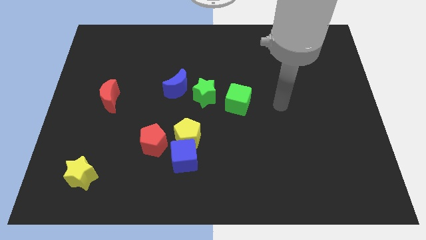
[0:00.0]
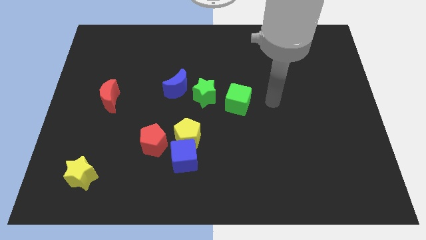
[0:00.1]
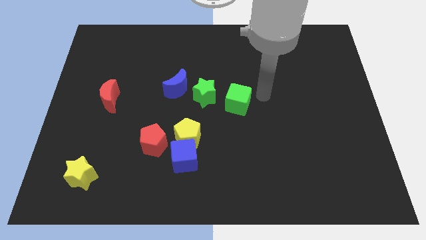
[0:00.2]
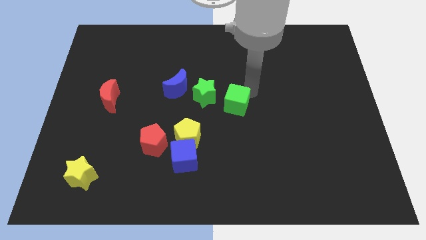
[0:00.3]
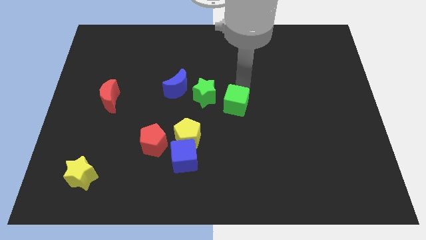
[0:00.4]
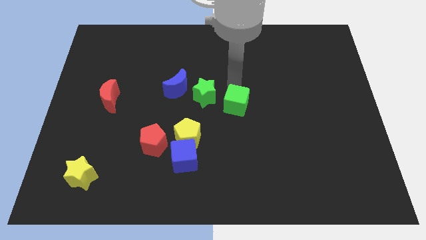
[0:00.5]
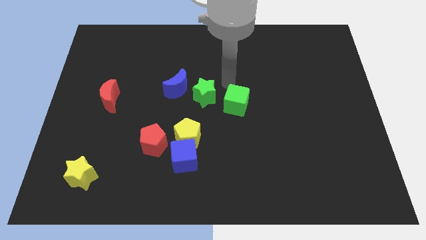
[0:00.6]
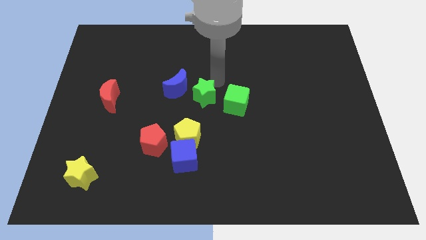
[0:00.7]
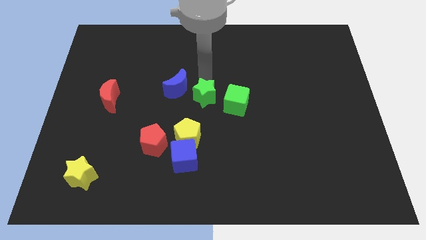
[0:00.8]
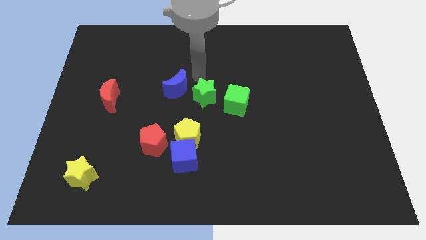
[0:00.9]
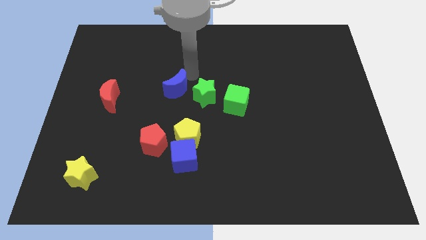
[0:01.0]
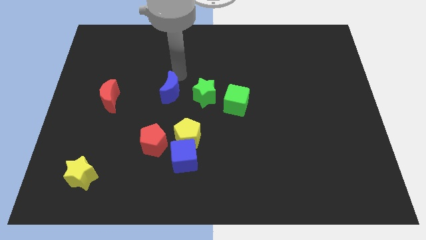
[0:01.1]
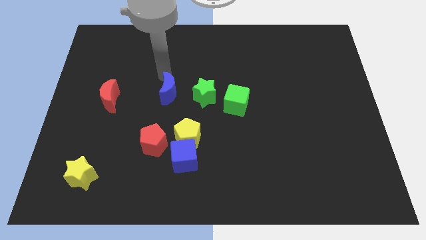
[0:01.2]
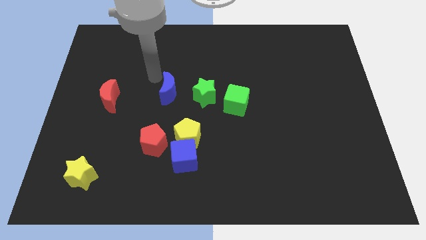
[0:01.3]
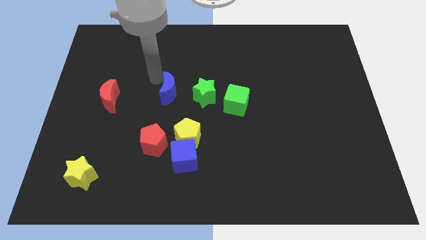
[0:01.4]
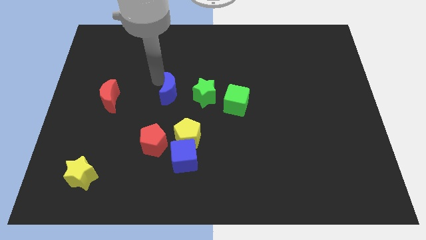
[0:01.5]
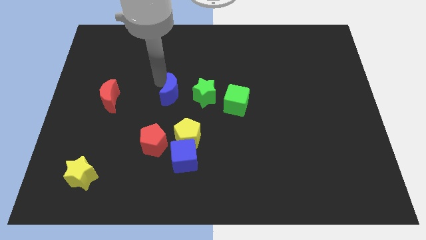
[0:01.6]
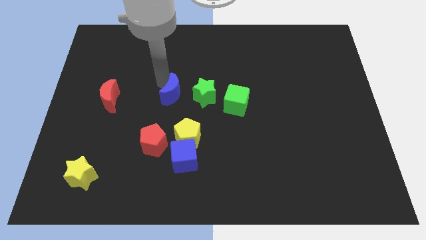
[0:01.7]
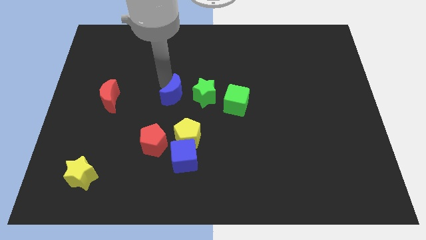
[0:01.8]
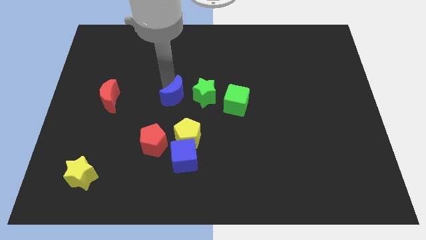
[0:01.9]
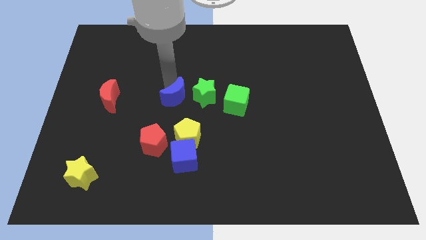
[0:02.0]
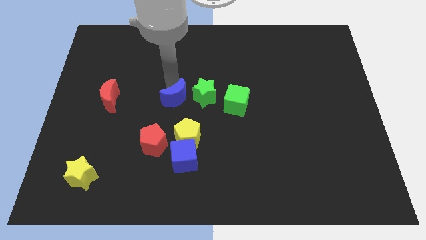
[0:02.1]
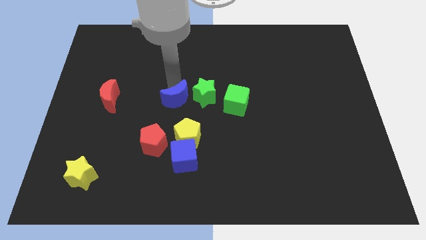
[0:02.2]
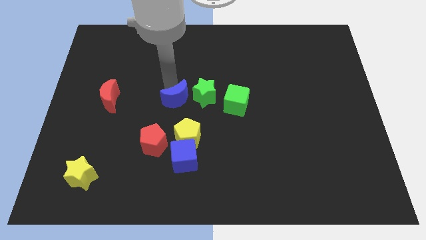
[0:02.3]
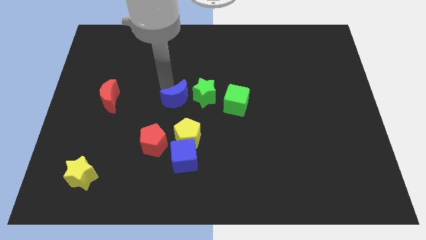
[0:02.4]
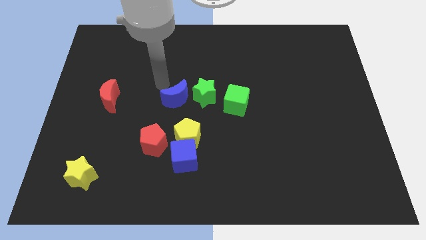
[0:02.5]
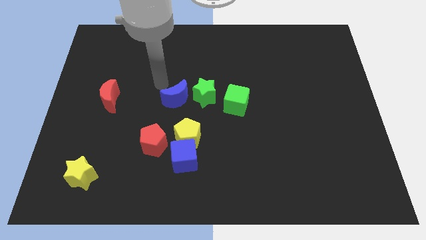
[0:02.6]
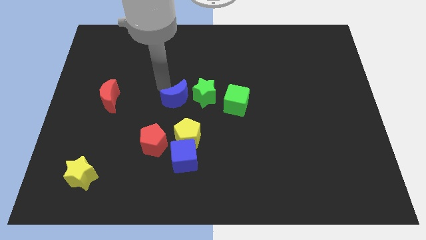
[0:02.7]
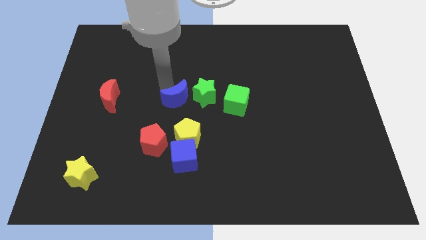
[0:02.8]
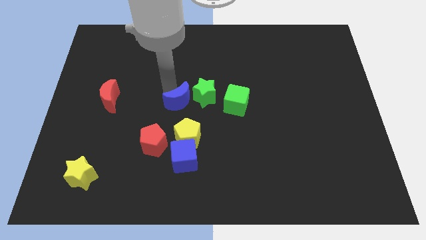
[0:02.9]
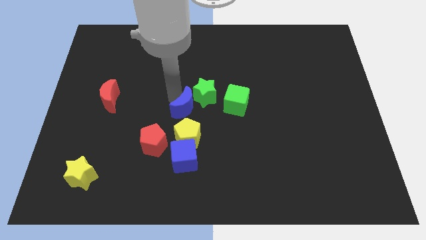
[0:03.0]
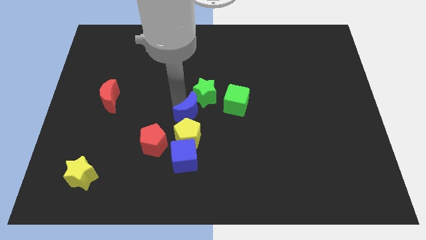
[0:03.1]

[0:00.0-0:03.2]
push the blue moon slightly downwards and right diagonally

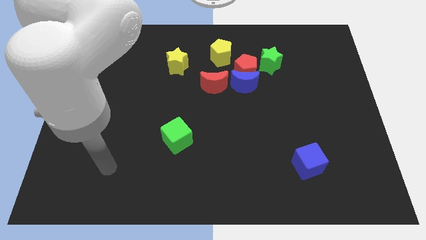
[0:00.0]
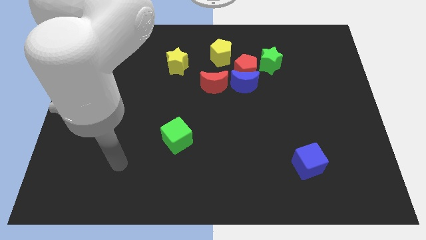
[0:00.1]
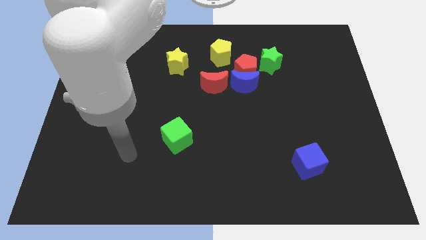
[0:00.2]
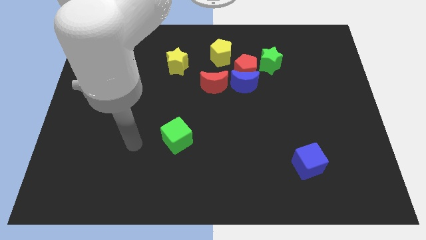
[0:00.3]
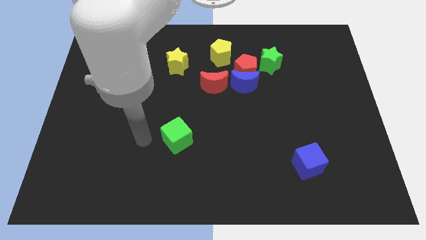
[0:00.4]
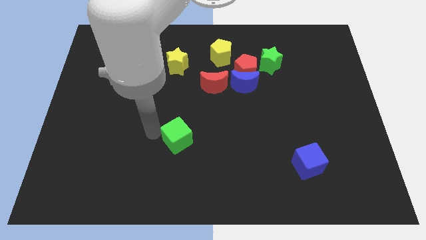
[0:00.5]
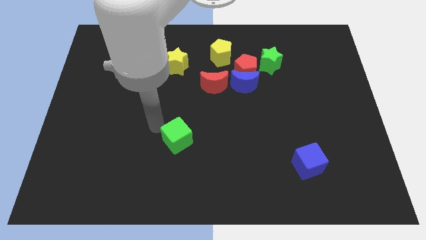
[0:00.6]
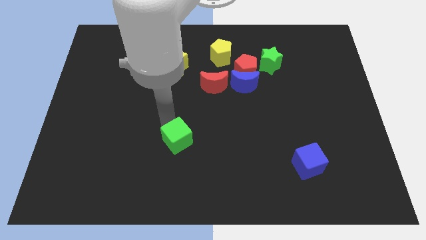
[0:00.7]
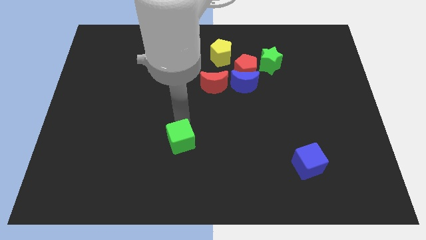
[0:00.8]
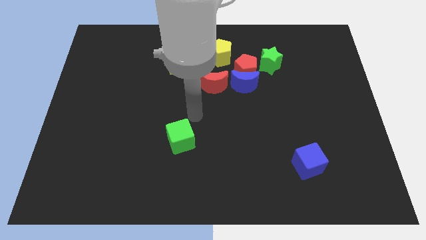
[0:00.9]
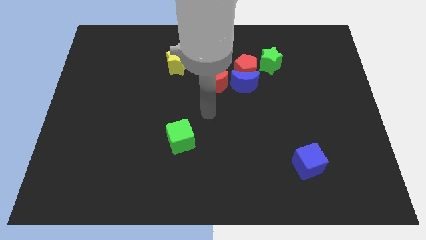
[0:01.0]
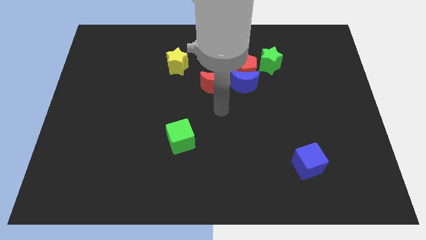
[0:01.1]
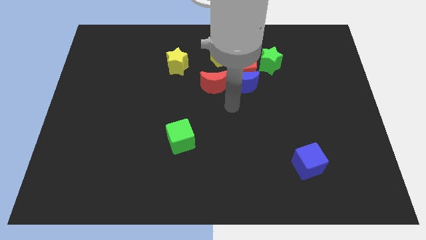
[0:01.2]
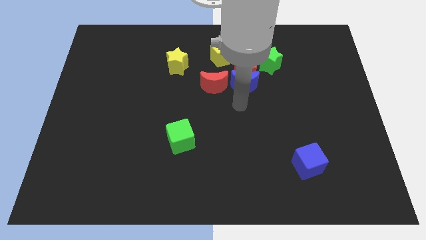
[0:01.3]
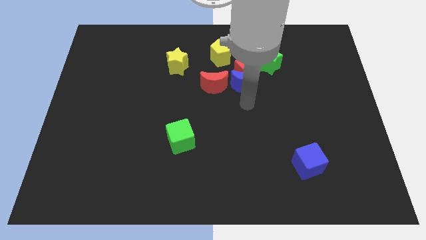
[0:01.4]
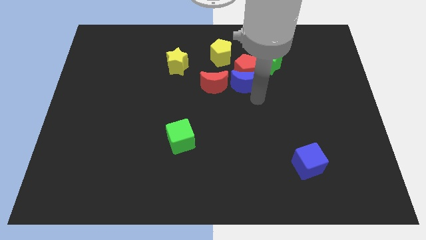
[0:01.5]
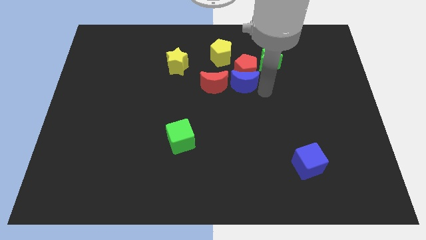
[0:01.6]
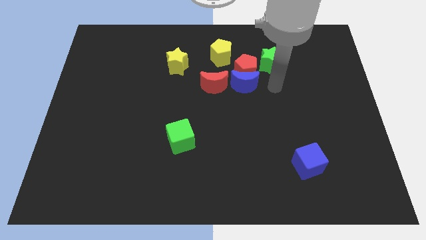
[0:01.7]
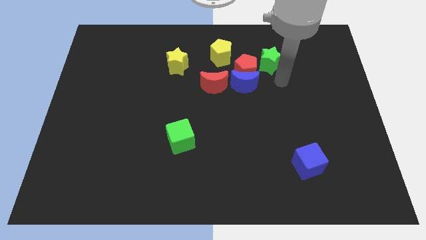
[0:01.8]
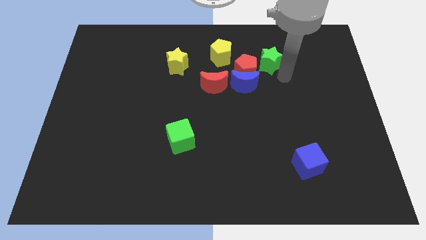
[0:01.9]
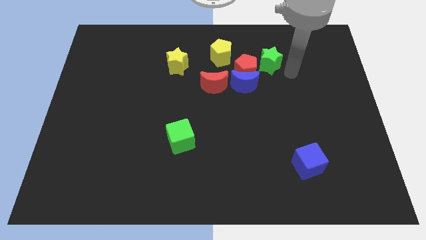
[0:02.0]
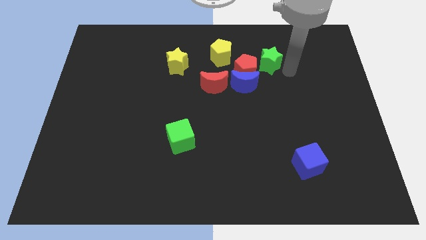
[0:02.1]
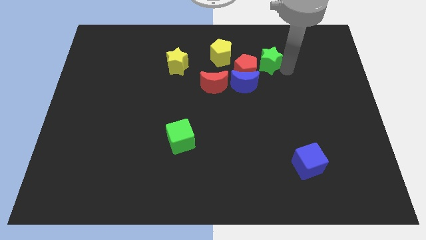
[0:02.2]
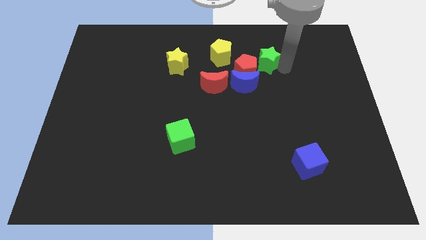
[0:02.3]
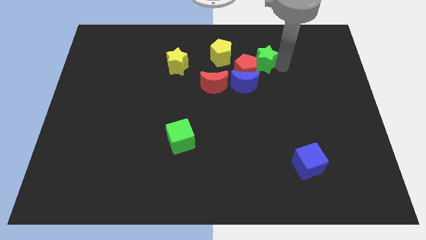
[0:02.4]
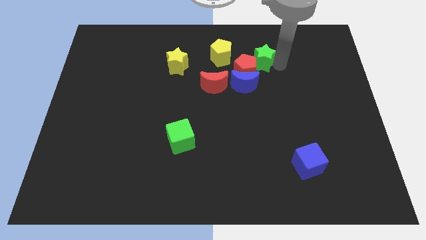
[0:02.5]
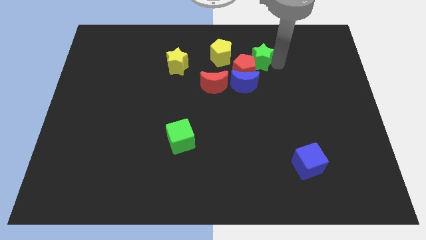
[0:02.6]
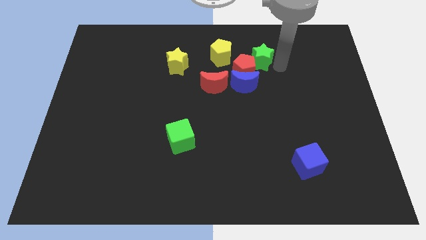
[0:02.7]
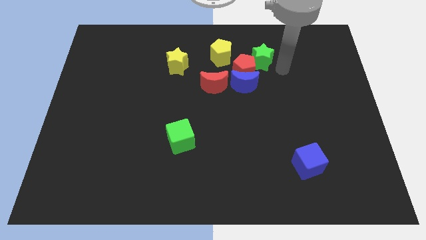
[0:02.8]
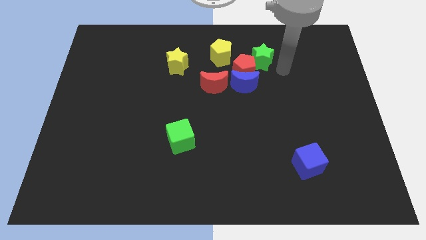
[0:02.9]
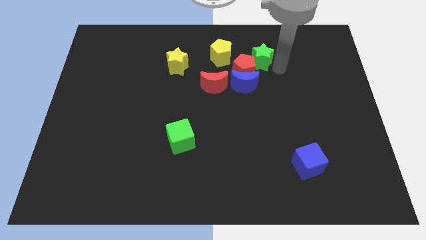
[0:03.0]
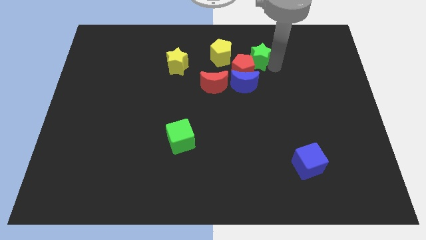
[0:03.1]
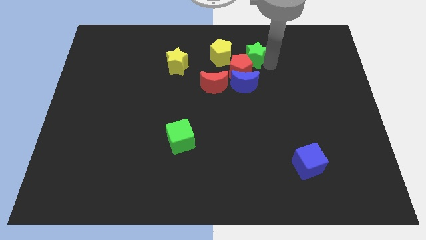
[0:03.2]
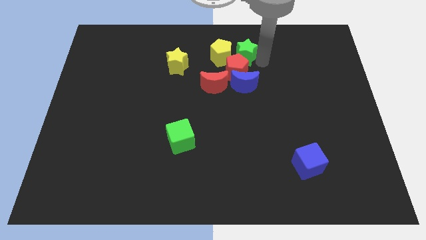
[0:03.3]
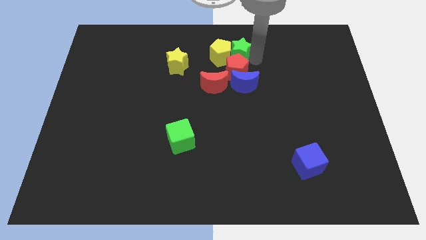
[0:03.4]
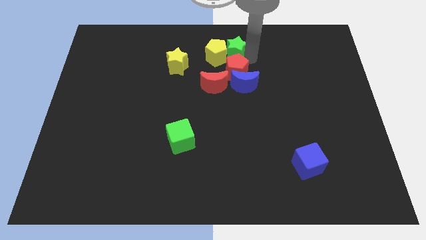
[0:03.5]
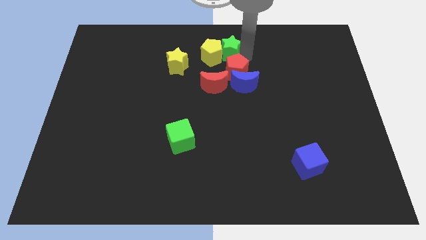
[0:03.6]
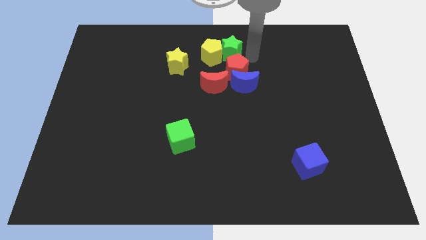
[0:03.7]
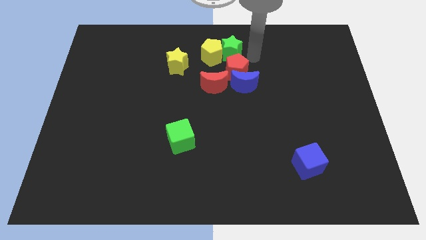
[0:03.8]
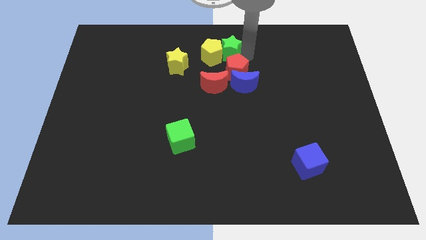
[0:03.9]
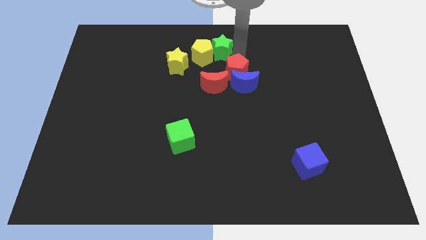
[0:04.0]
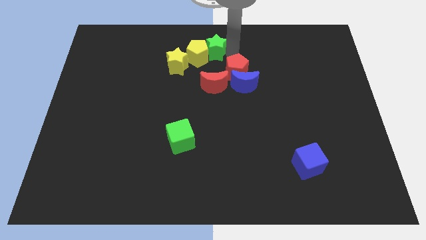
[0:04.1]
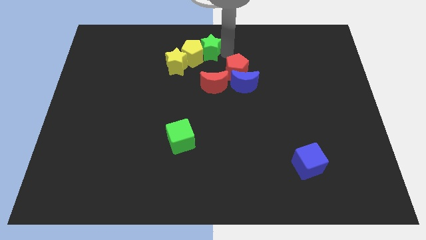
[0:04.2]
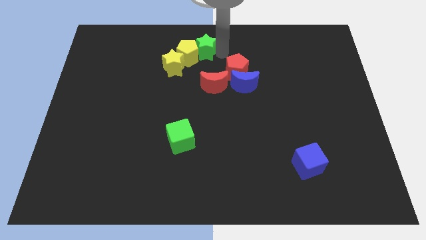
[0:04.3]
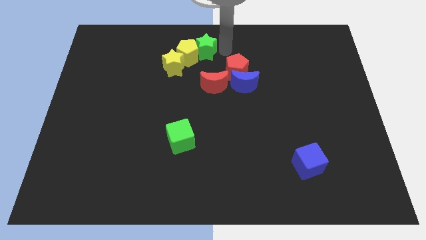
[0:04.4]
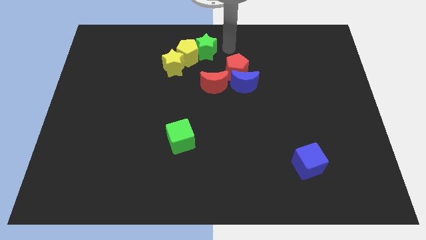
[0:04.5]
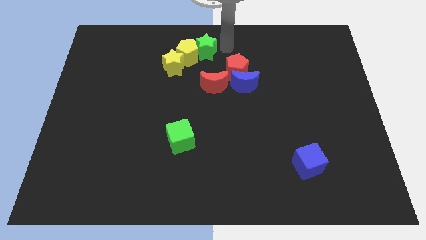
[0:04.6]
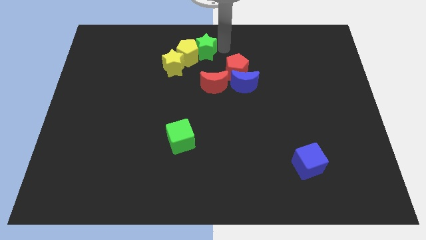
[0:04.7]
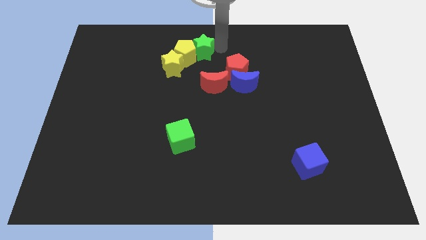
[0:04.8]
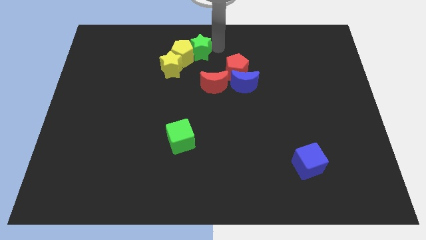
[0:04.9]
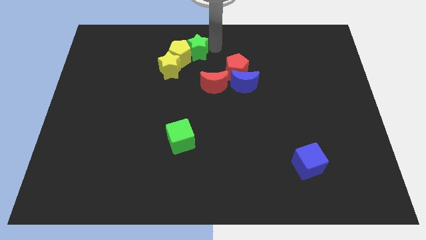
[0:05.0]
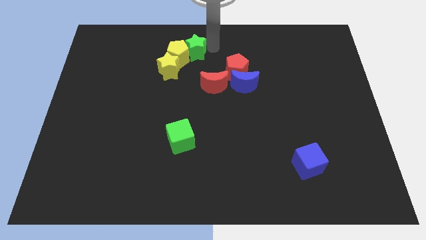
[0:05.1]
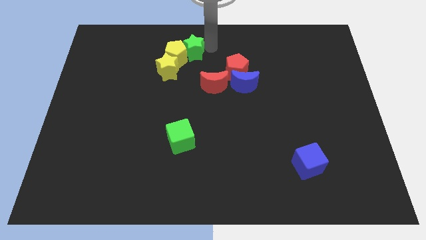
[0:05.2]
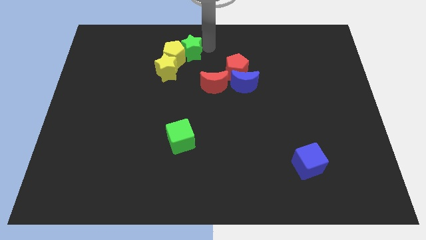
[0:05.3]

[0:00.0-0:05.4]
slide the green star to the left
